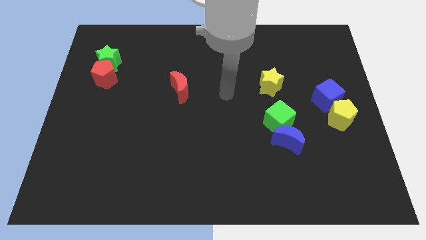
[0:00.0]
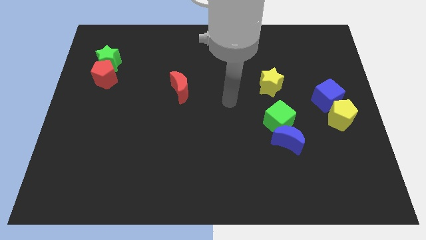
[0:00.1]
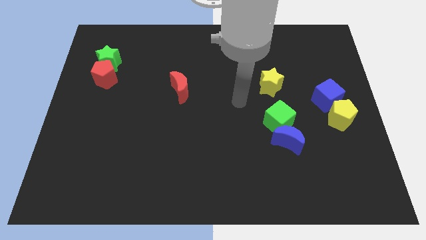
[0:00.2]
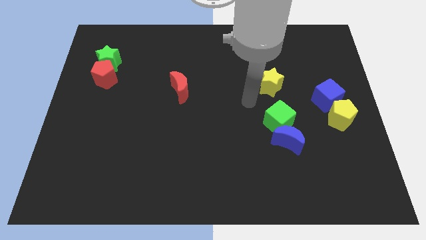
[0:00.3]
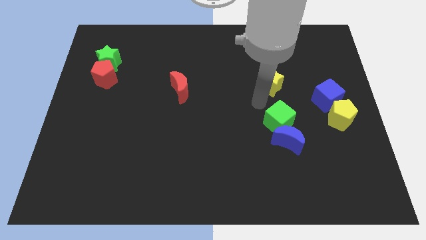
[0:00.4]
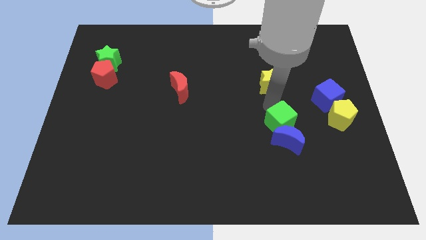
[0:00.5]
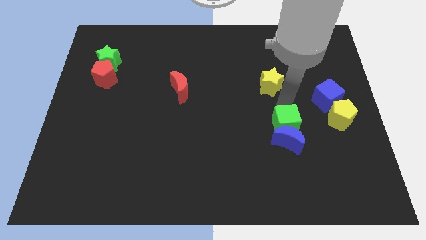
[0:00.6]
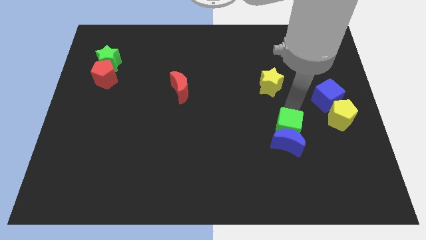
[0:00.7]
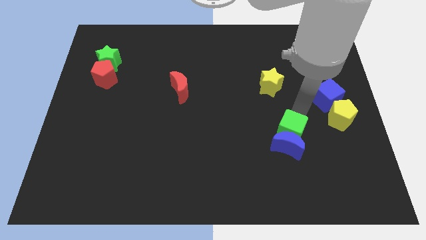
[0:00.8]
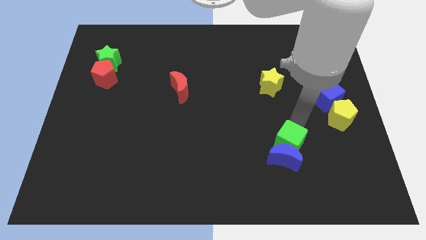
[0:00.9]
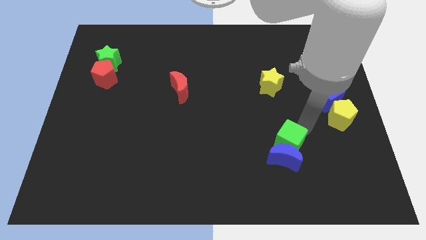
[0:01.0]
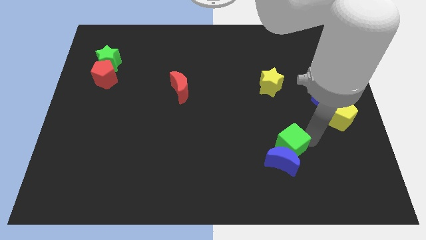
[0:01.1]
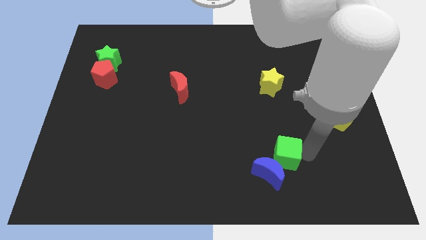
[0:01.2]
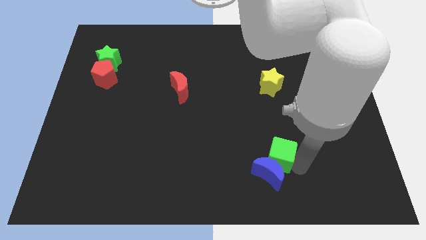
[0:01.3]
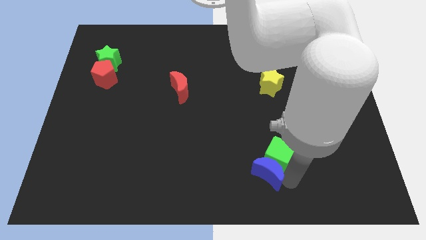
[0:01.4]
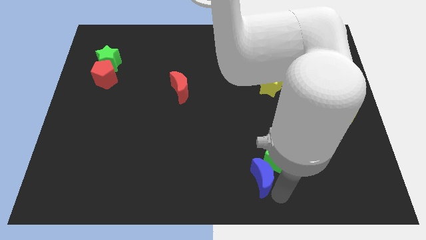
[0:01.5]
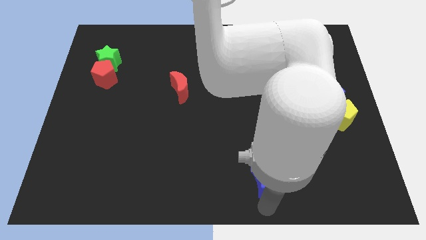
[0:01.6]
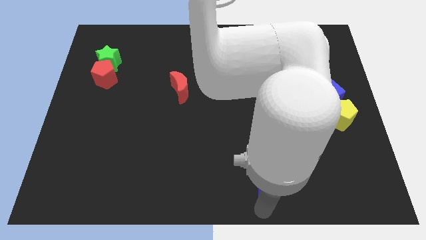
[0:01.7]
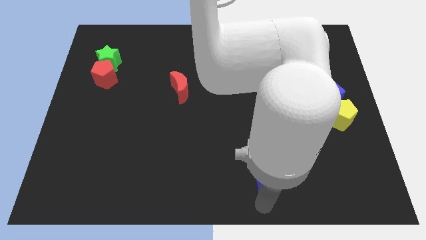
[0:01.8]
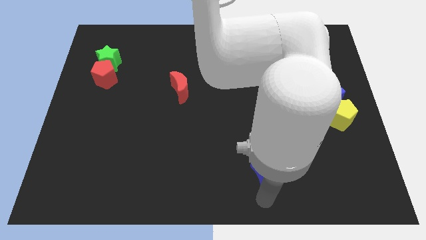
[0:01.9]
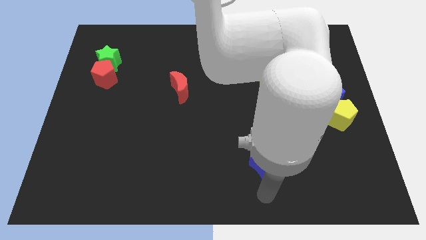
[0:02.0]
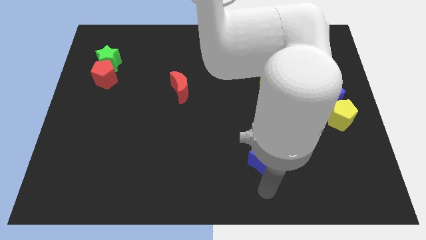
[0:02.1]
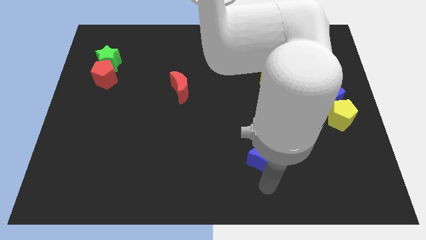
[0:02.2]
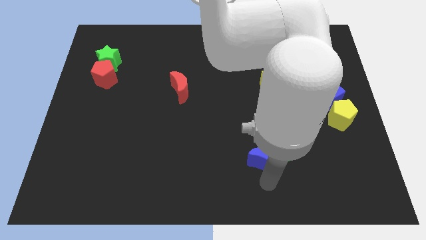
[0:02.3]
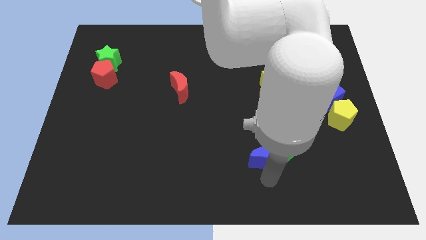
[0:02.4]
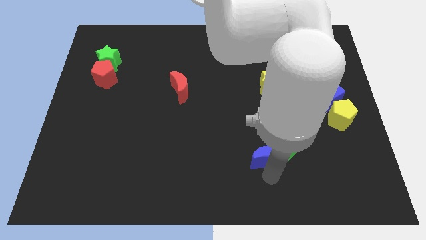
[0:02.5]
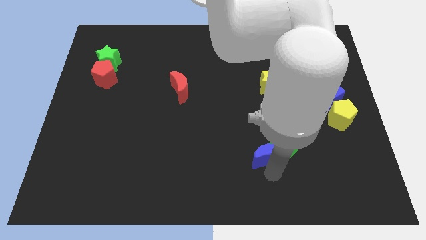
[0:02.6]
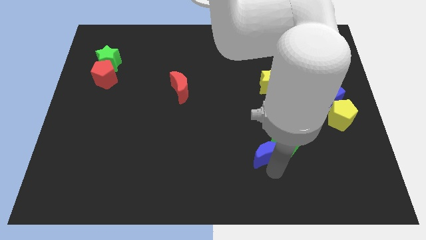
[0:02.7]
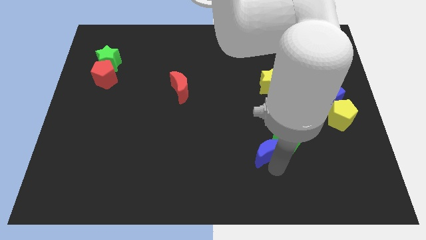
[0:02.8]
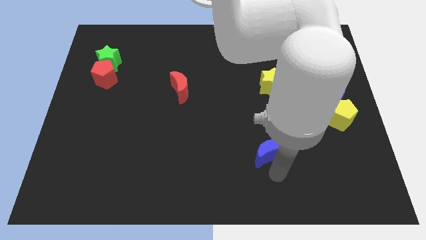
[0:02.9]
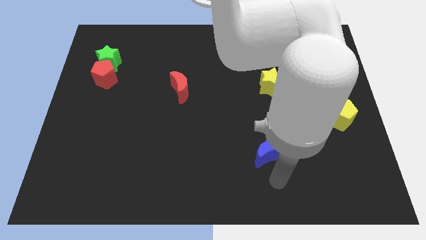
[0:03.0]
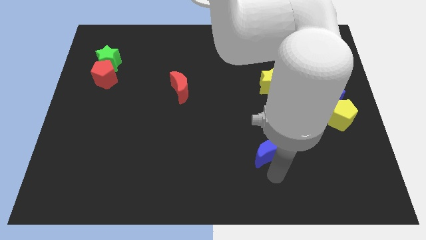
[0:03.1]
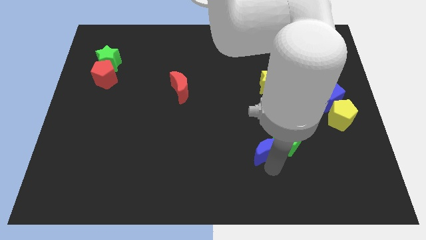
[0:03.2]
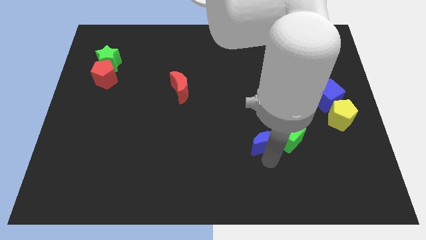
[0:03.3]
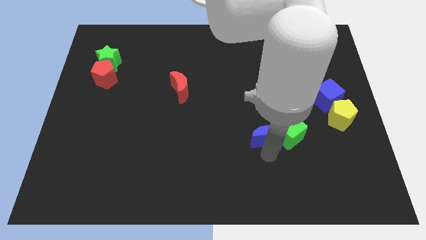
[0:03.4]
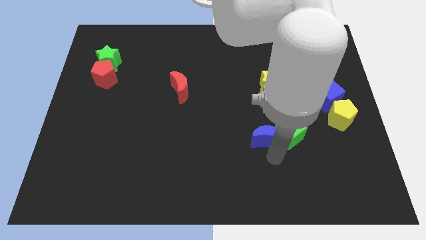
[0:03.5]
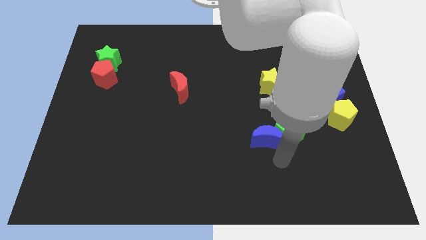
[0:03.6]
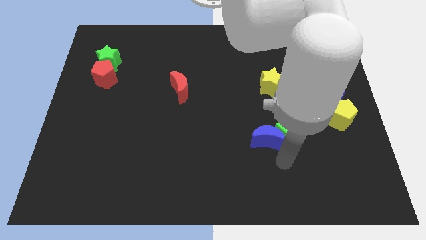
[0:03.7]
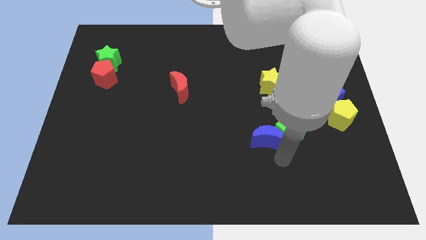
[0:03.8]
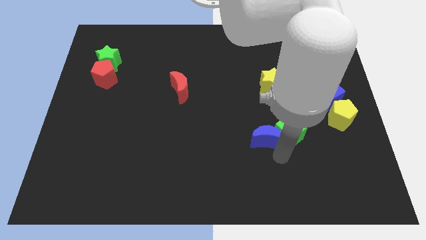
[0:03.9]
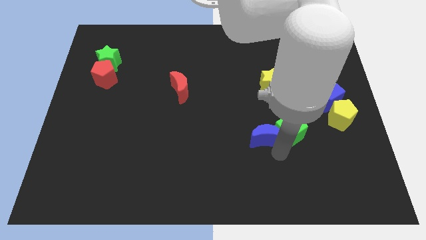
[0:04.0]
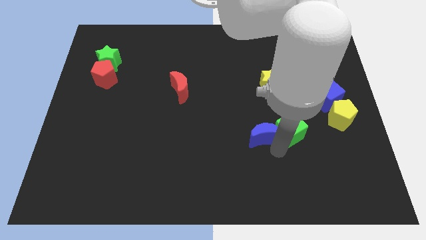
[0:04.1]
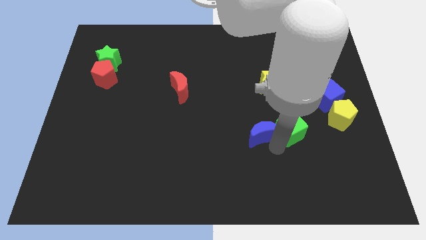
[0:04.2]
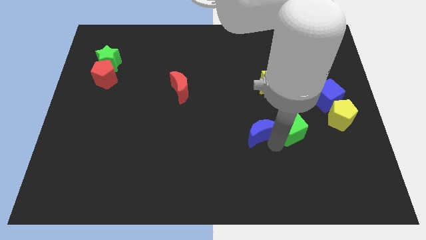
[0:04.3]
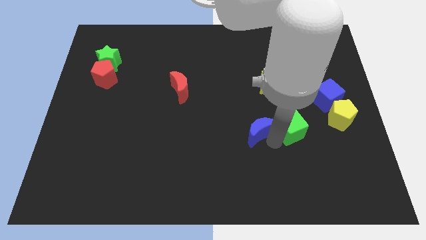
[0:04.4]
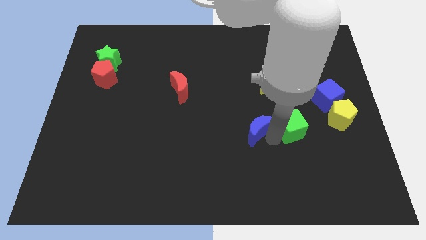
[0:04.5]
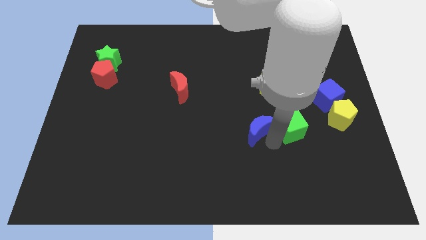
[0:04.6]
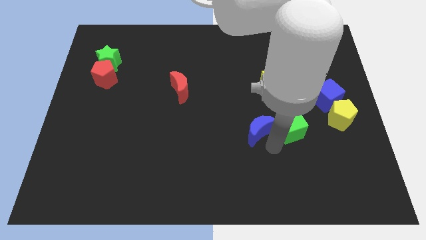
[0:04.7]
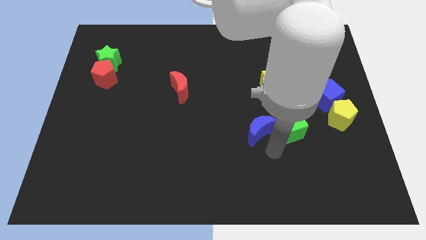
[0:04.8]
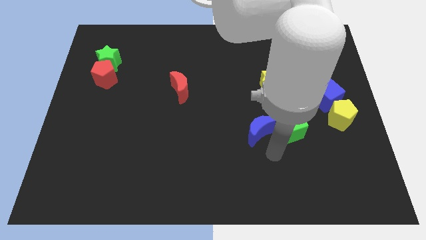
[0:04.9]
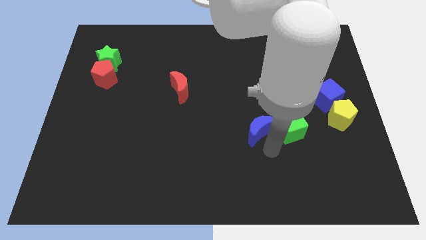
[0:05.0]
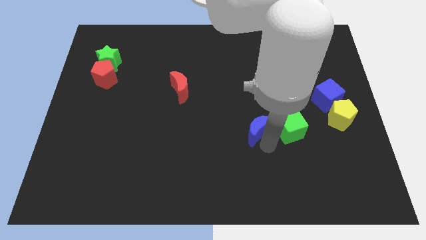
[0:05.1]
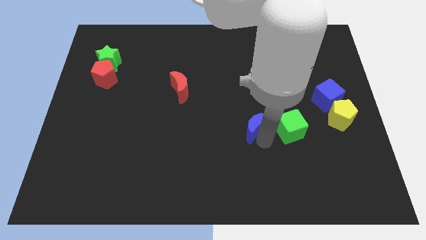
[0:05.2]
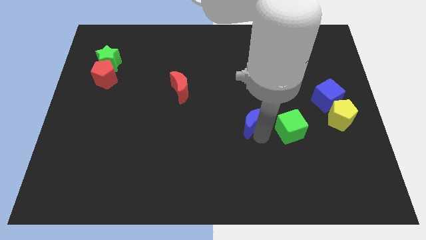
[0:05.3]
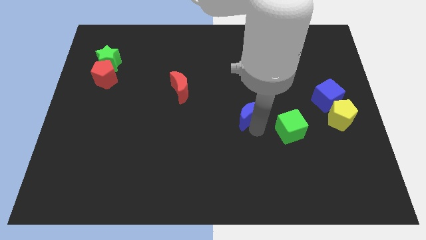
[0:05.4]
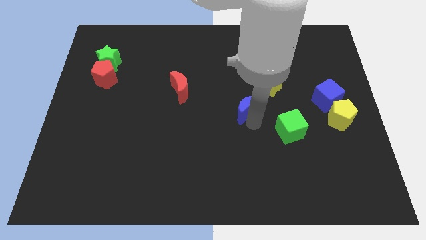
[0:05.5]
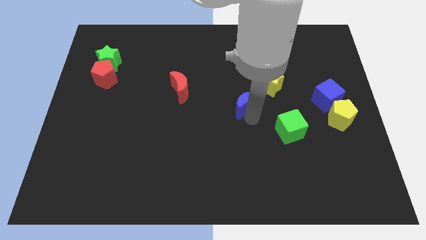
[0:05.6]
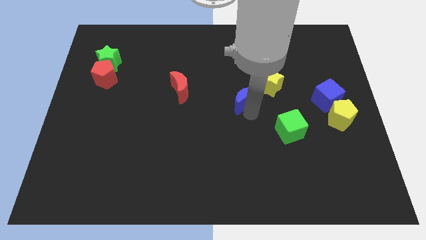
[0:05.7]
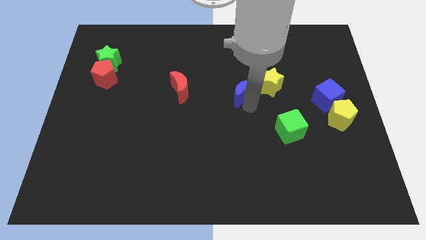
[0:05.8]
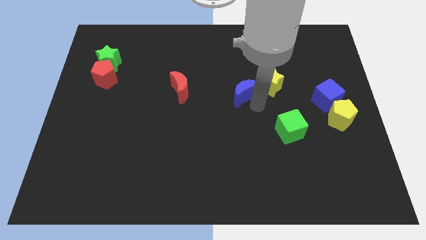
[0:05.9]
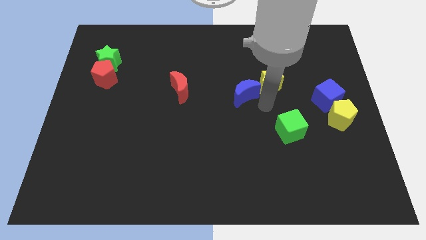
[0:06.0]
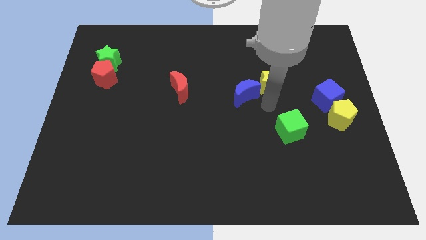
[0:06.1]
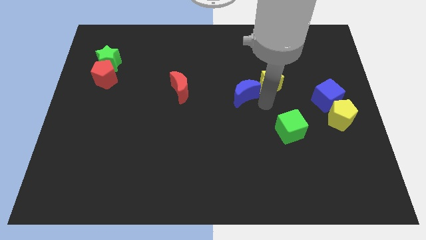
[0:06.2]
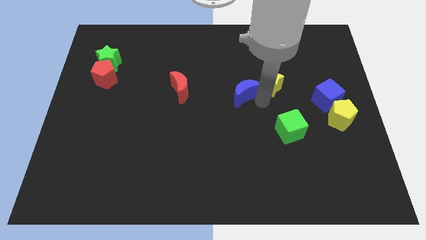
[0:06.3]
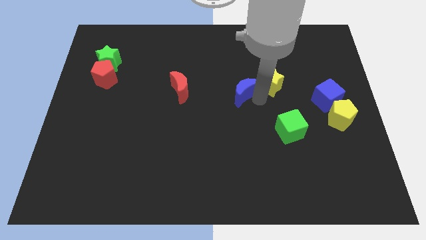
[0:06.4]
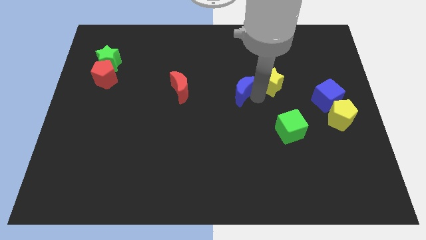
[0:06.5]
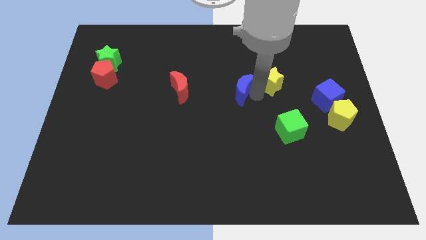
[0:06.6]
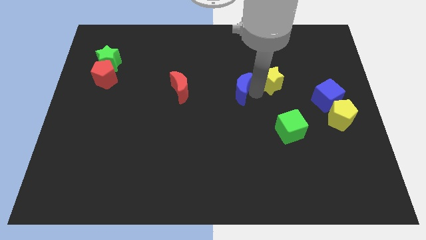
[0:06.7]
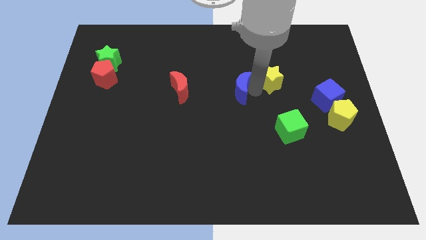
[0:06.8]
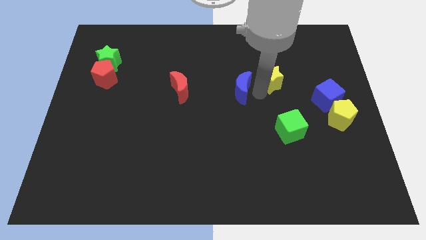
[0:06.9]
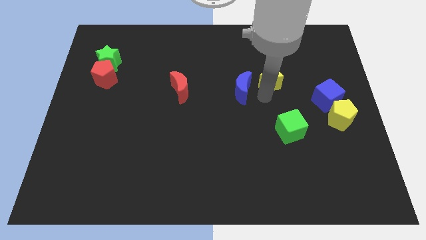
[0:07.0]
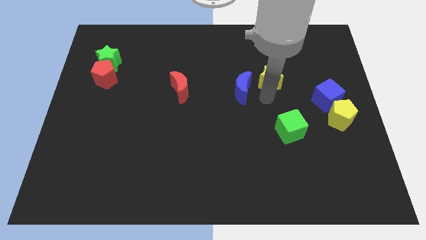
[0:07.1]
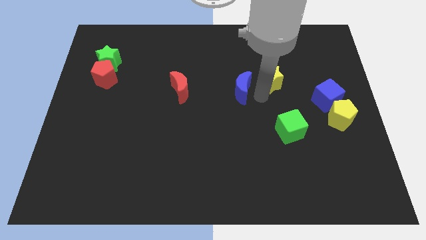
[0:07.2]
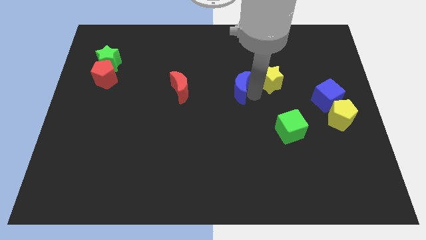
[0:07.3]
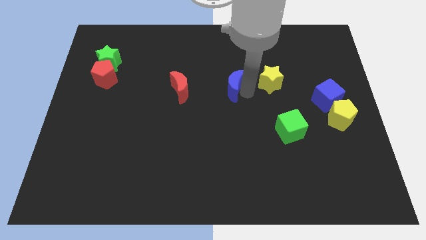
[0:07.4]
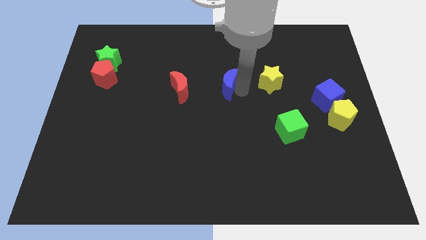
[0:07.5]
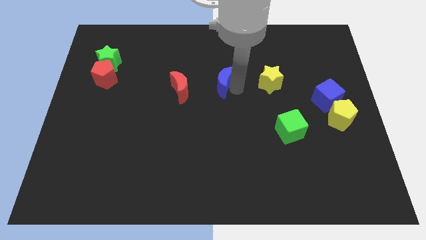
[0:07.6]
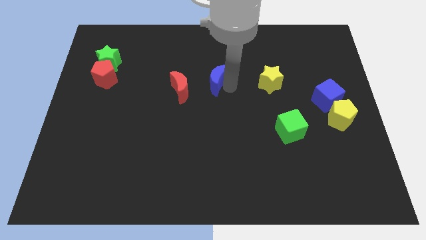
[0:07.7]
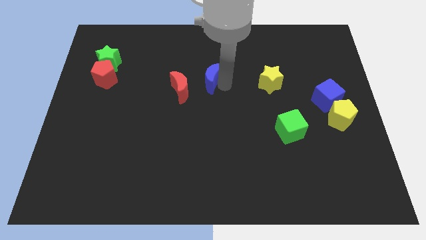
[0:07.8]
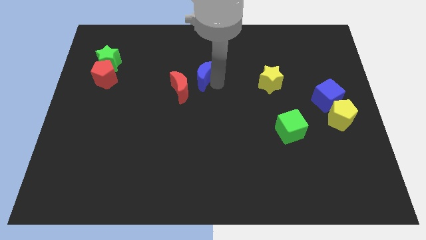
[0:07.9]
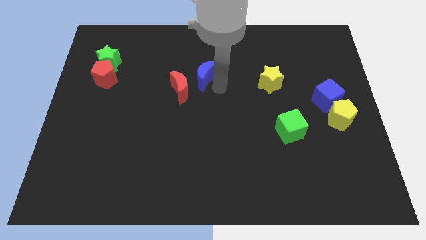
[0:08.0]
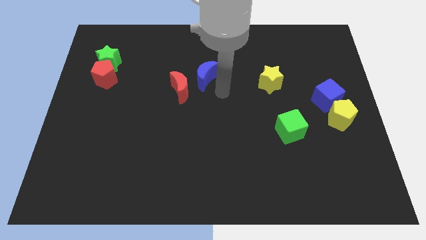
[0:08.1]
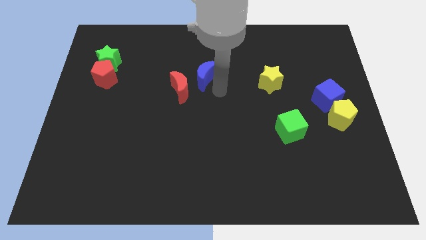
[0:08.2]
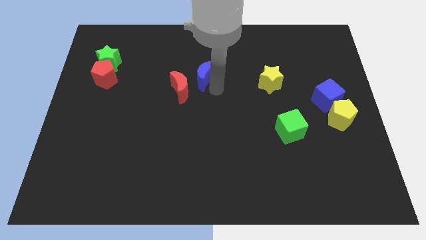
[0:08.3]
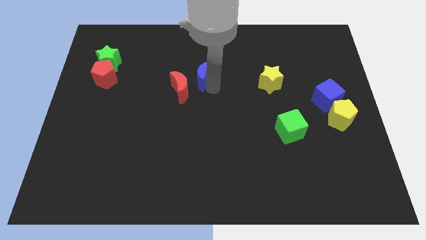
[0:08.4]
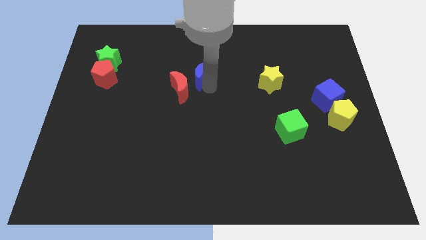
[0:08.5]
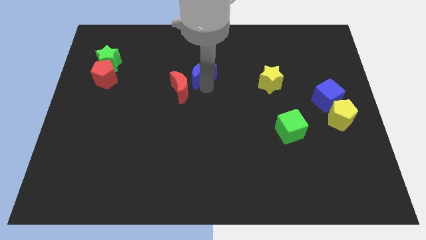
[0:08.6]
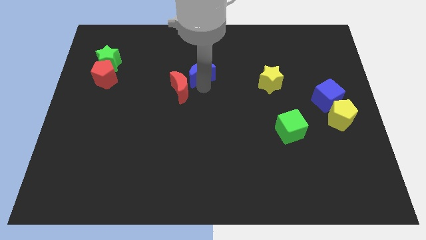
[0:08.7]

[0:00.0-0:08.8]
move the blue moon above the red moon
